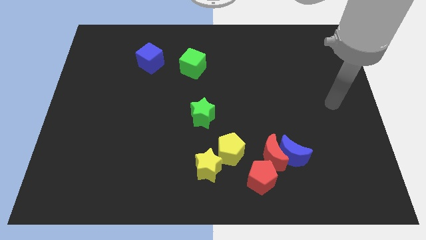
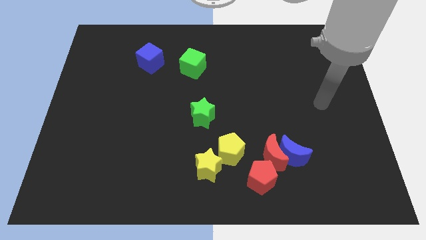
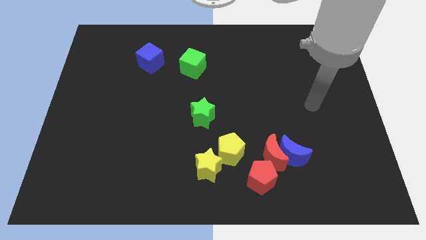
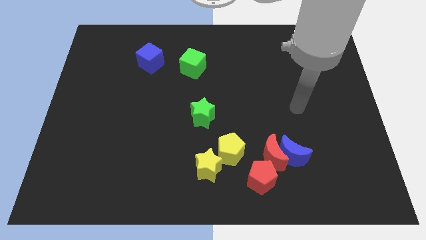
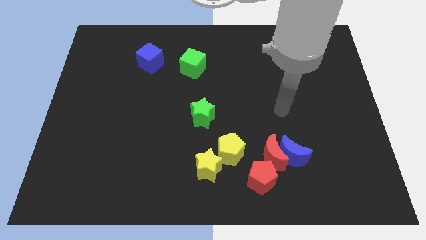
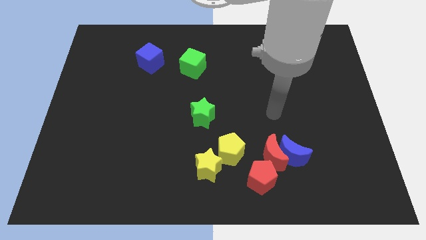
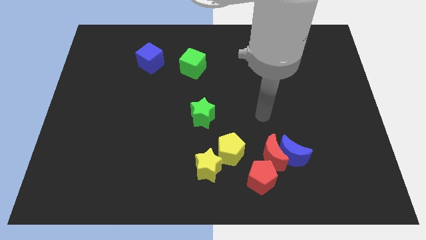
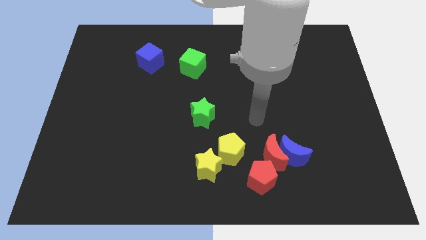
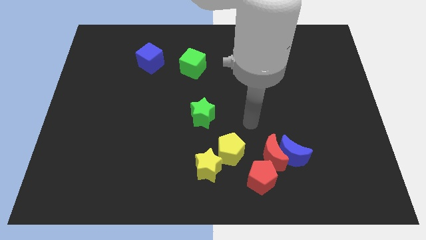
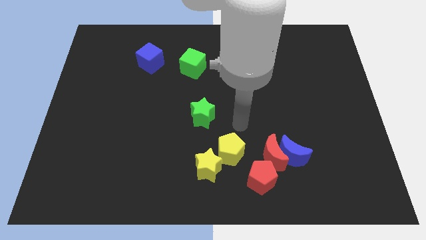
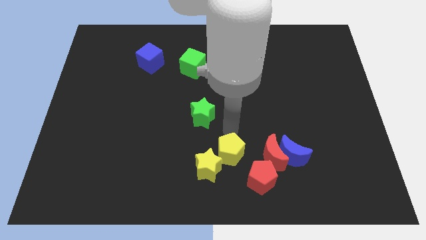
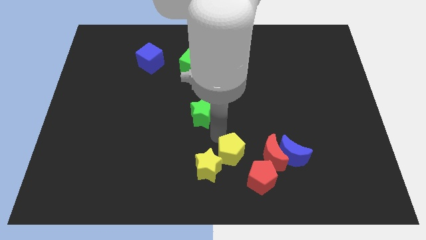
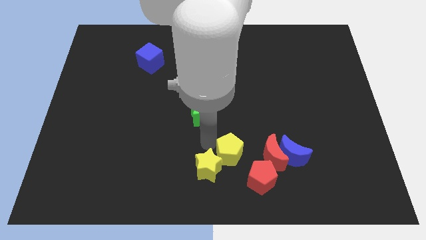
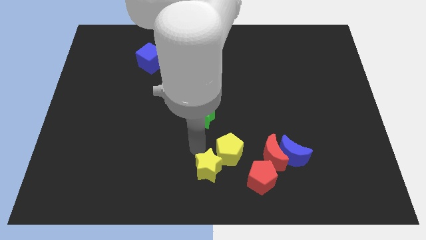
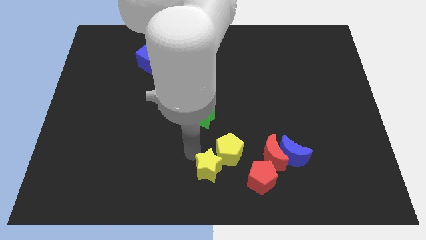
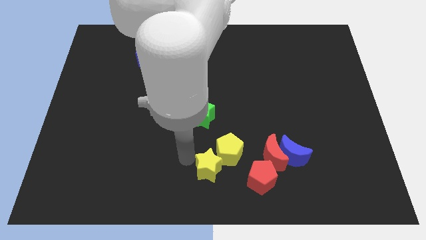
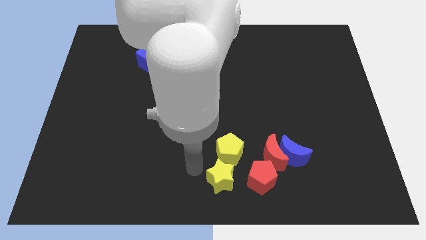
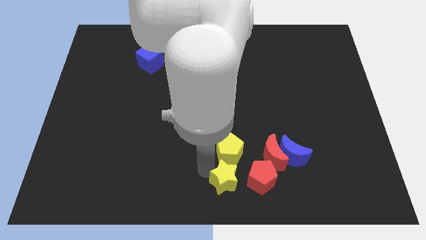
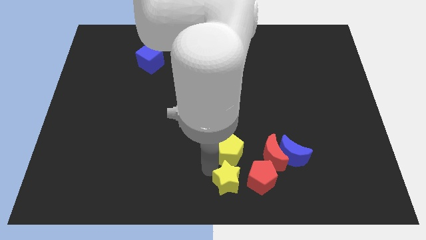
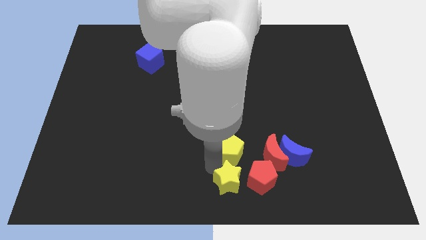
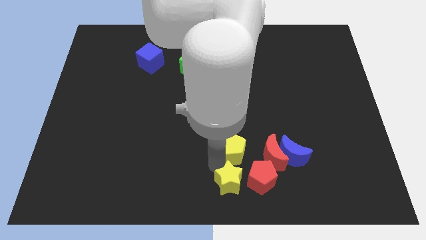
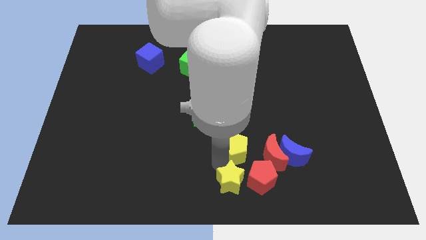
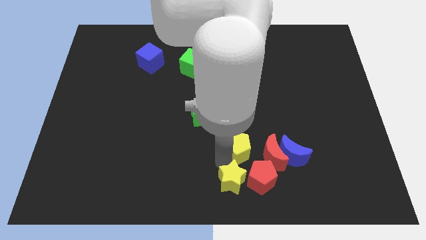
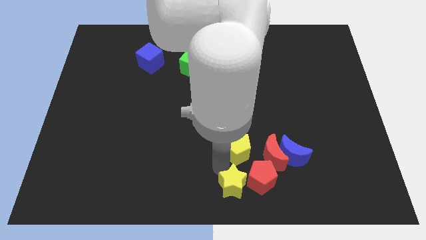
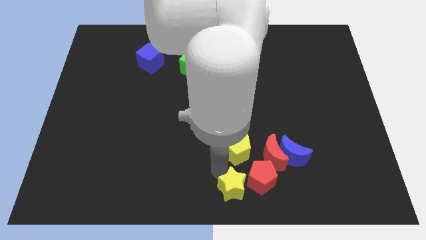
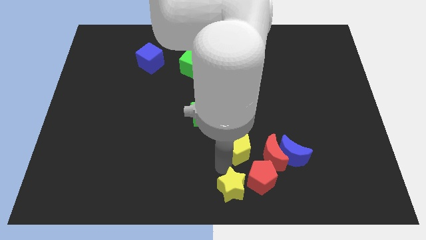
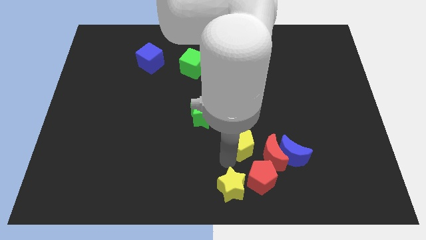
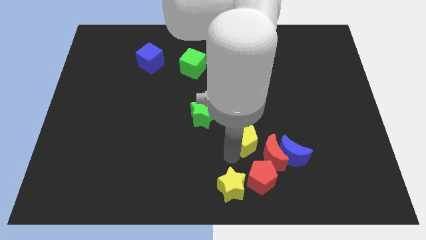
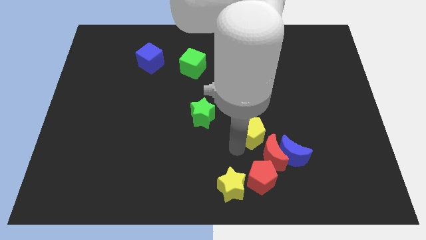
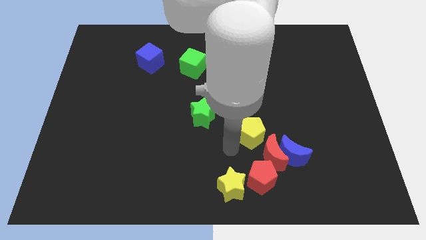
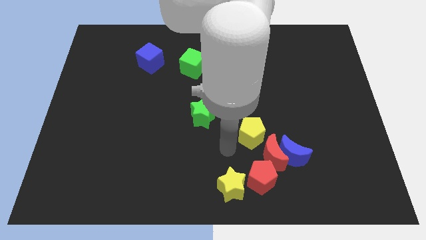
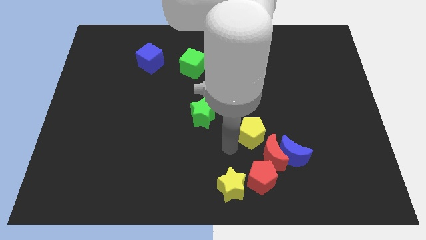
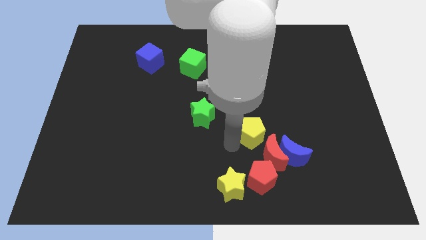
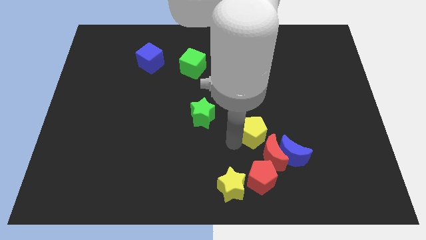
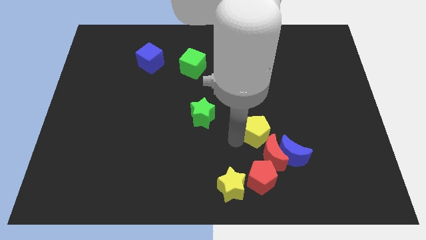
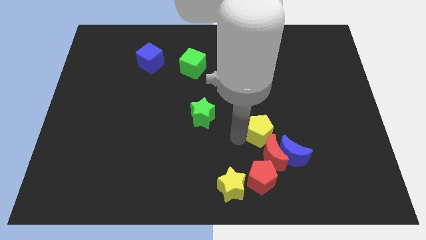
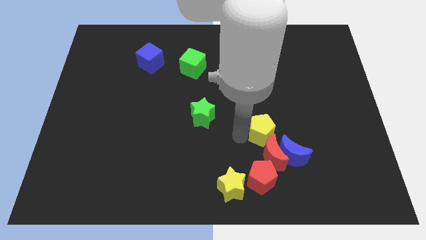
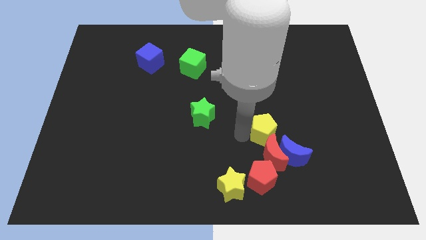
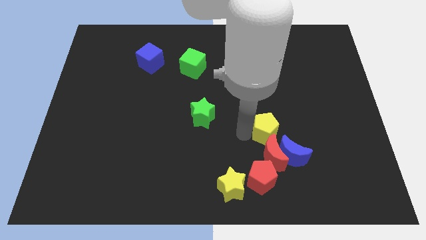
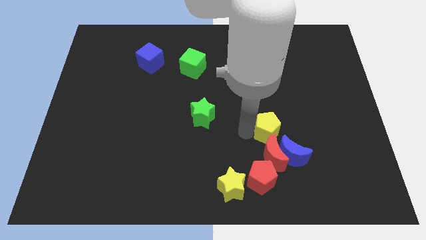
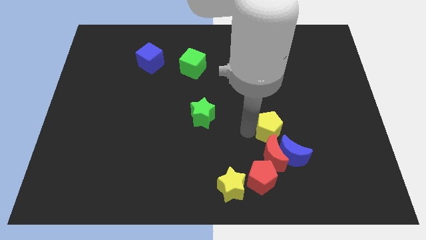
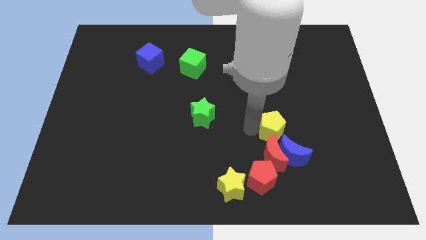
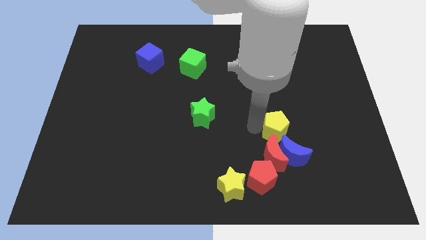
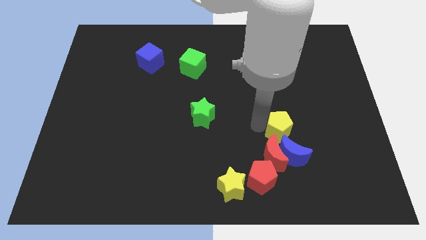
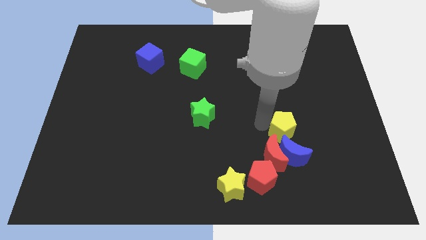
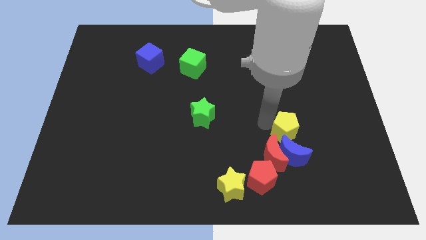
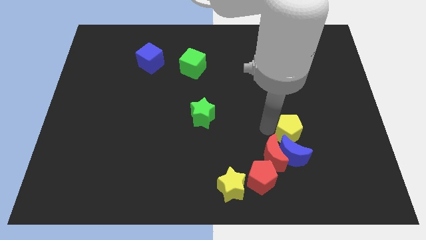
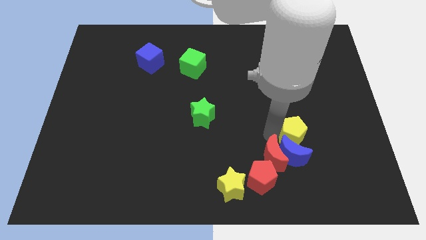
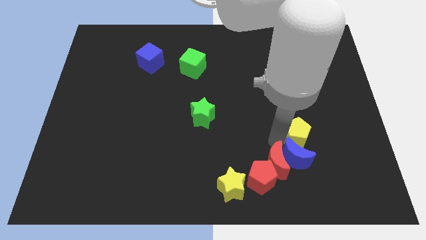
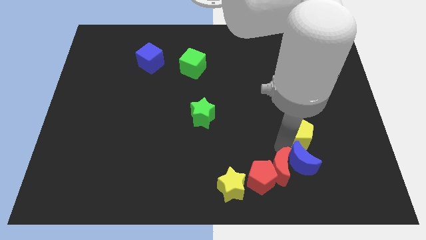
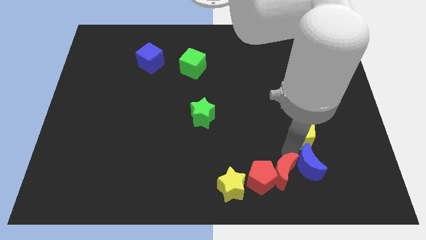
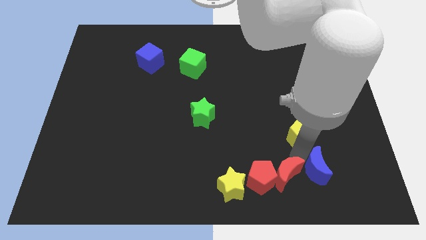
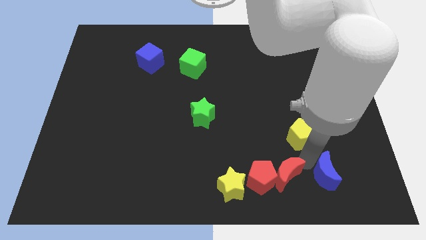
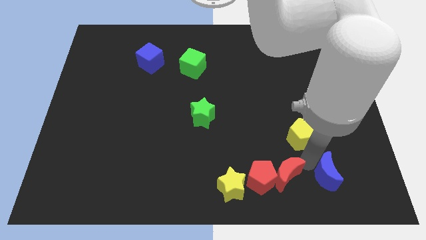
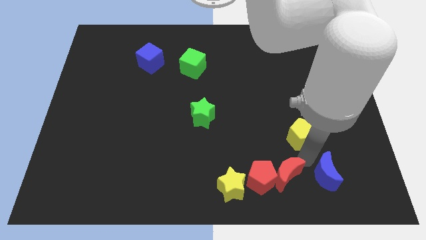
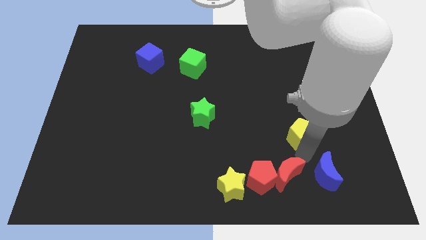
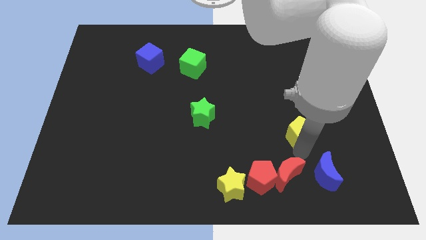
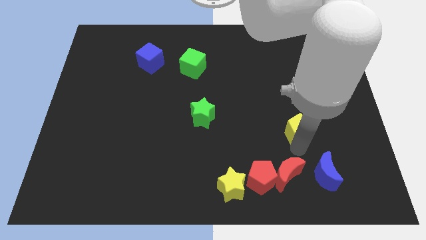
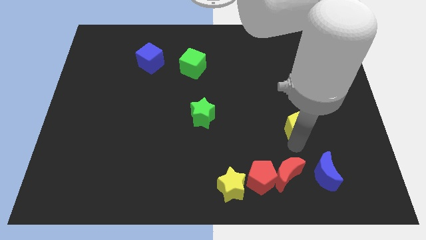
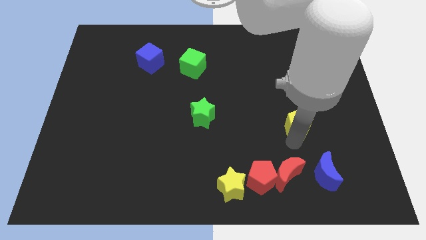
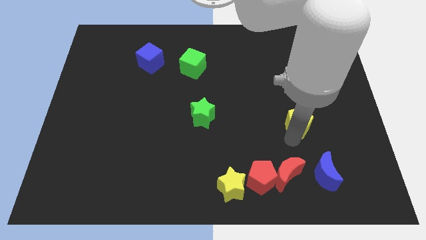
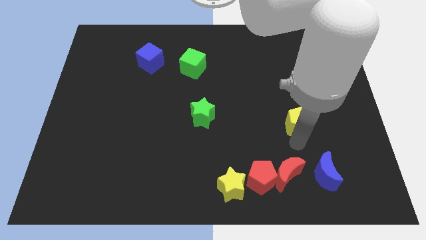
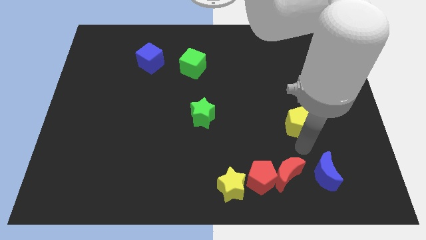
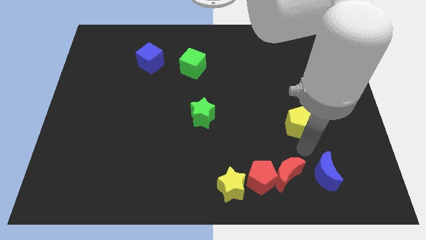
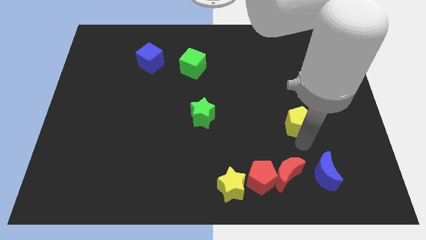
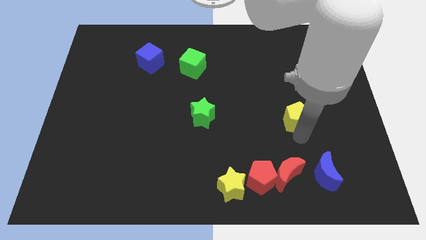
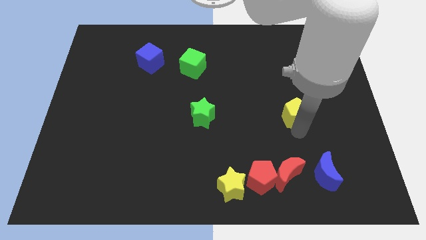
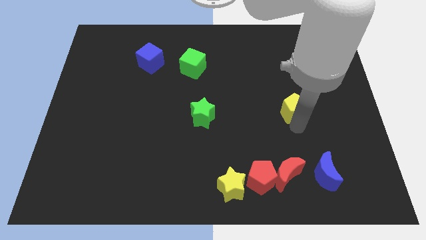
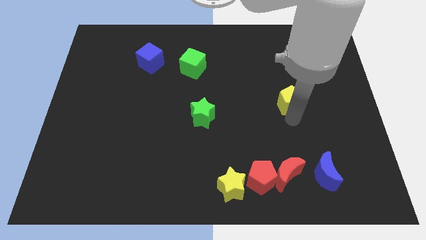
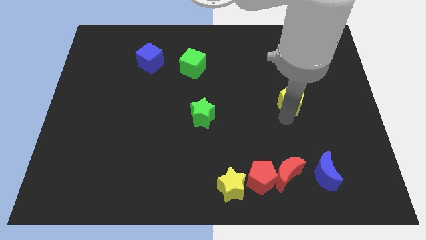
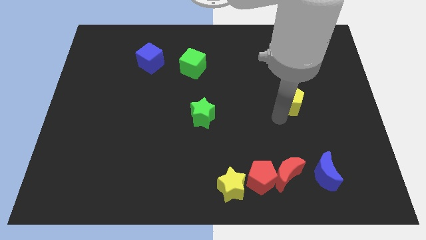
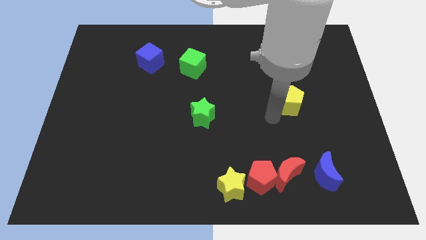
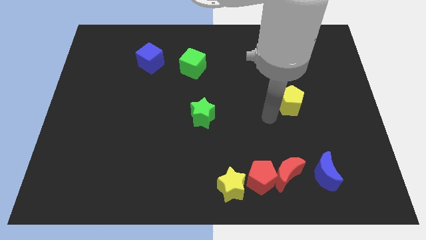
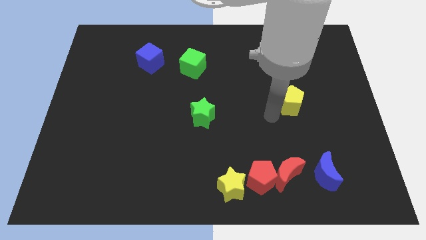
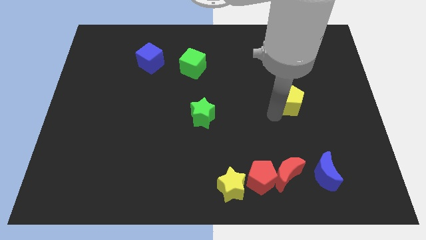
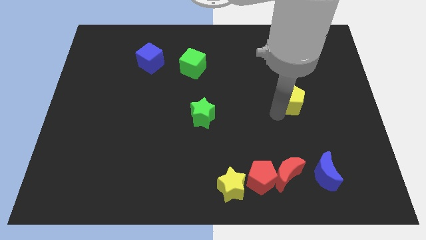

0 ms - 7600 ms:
push the yellow pentagon up and to the right diagonally

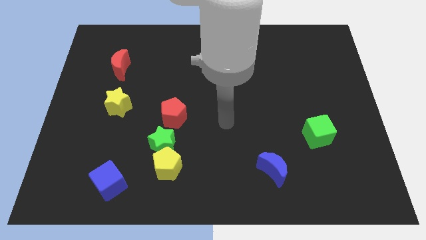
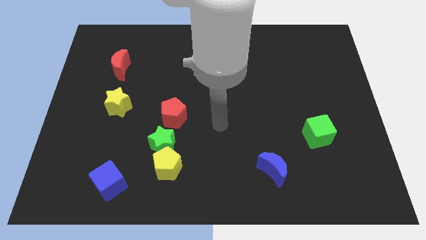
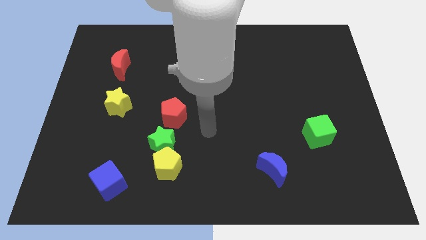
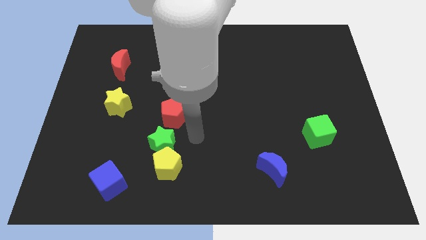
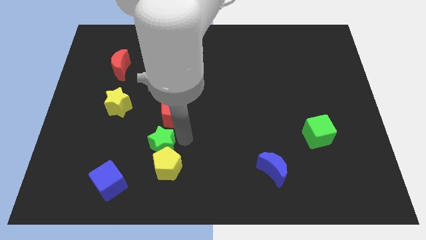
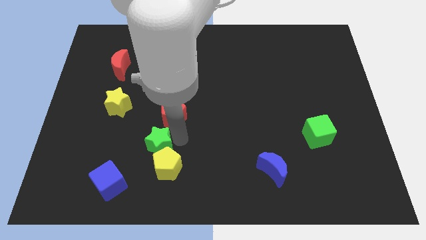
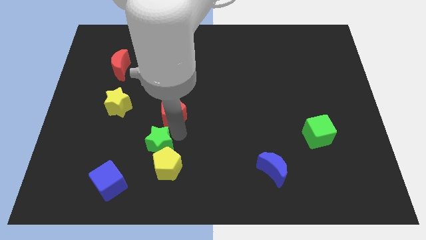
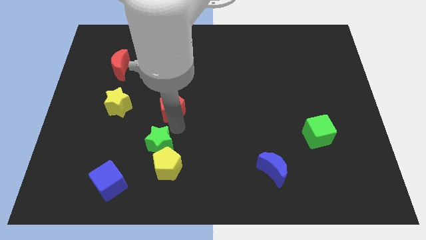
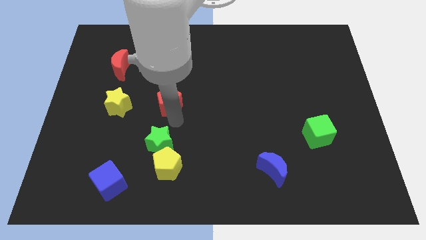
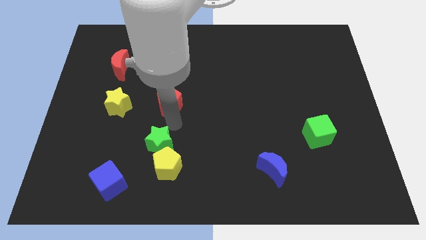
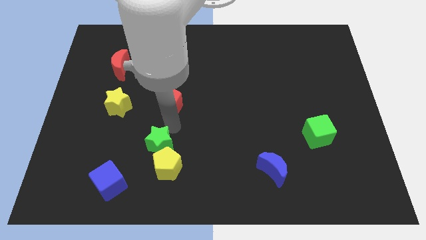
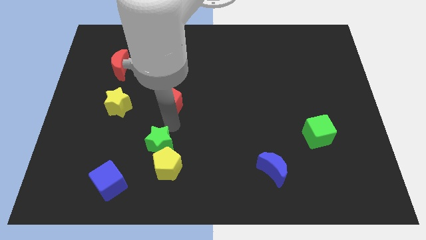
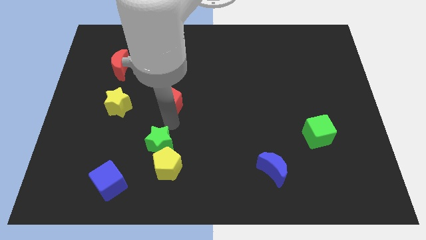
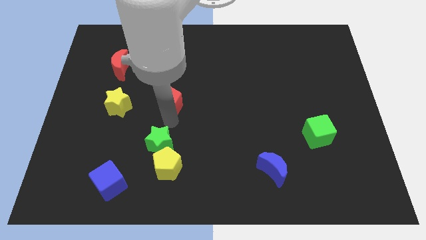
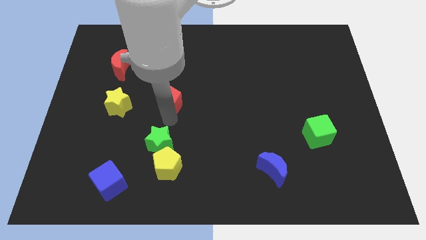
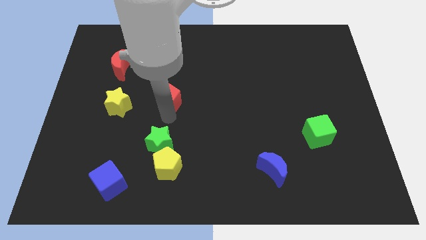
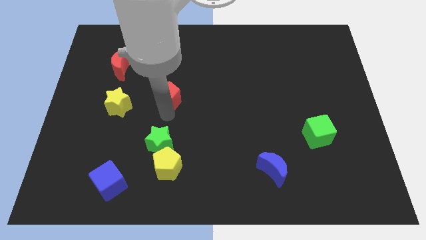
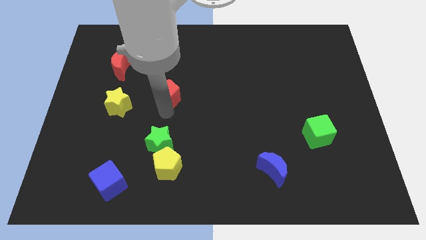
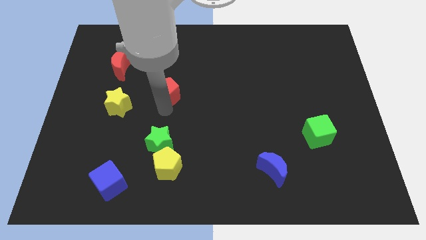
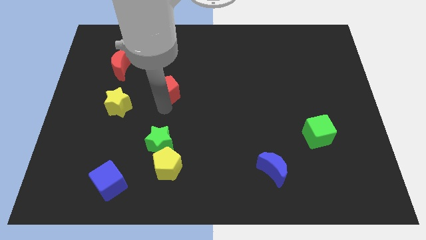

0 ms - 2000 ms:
slide the red pentagon upwards a little
